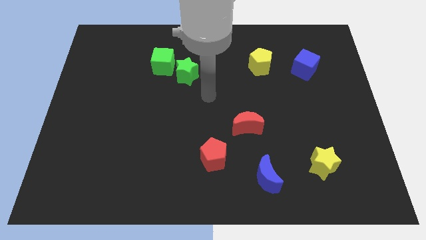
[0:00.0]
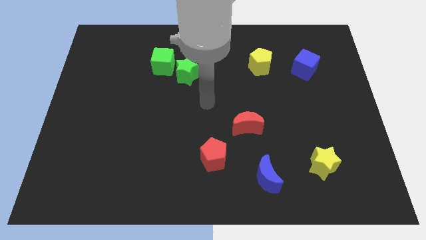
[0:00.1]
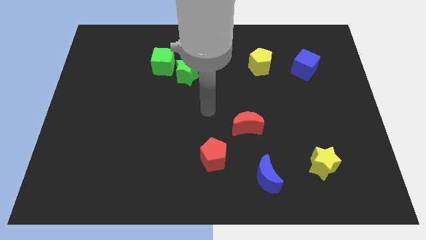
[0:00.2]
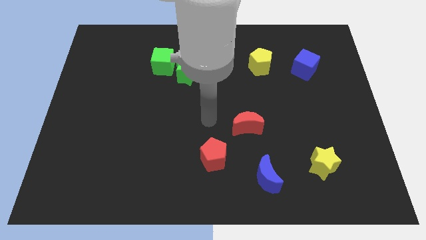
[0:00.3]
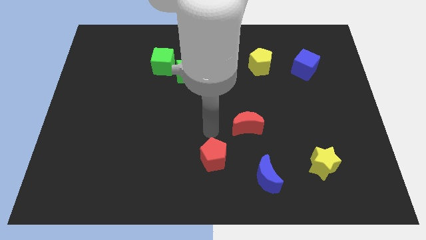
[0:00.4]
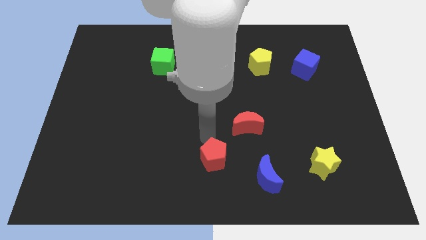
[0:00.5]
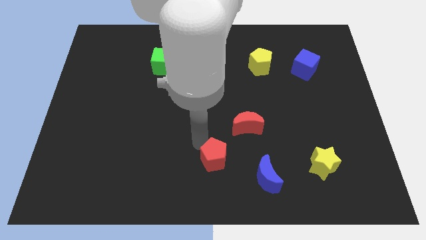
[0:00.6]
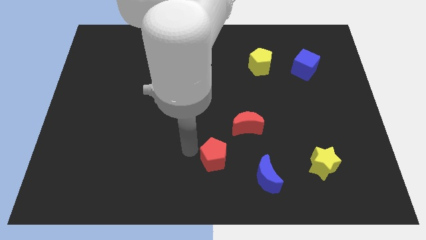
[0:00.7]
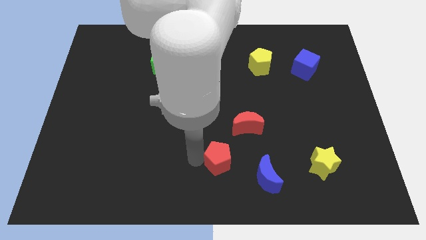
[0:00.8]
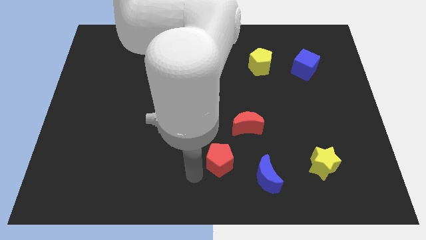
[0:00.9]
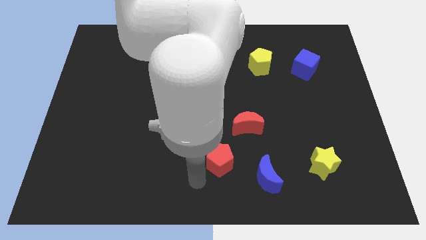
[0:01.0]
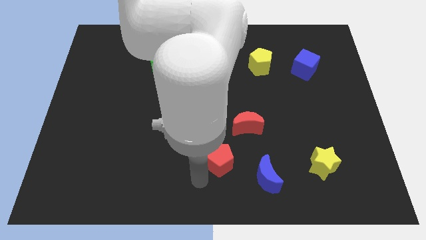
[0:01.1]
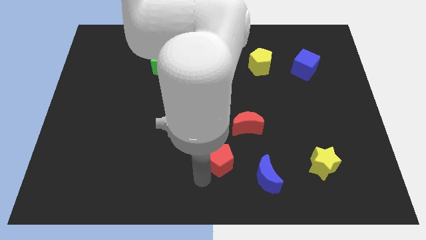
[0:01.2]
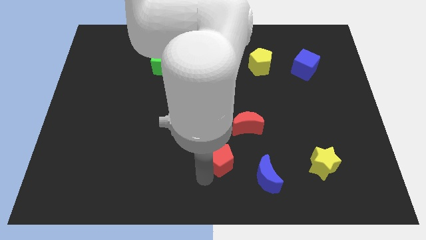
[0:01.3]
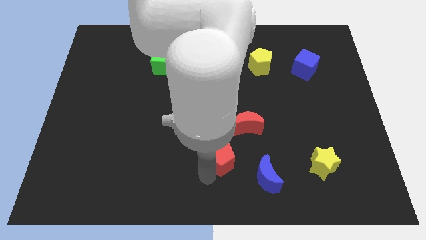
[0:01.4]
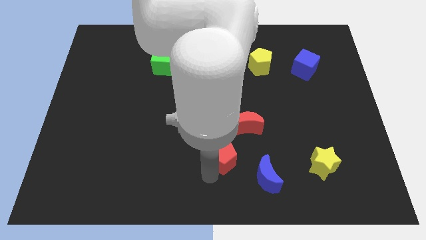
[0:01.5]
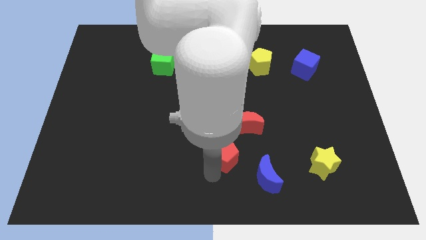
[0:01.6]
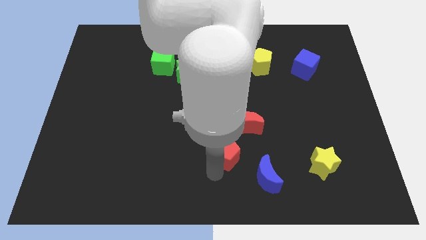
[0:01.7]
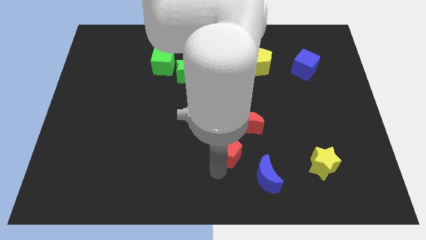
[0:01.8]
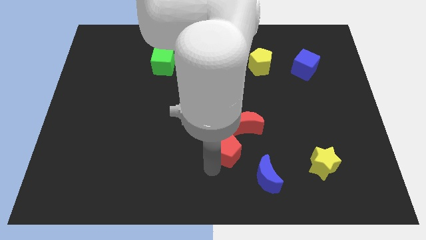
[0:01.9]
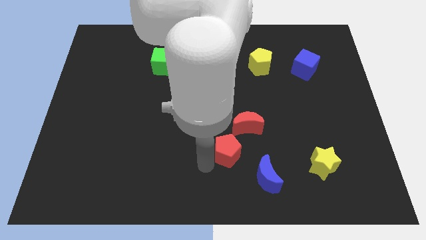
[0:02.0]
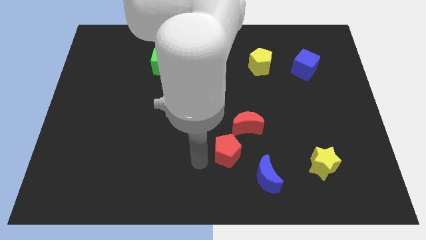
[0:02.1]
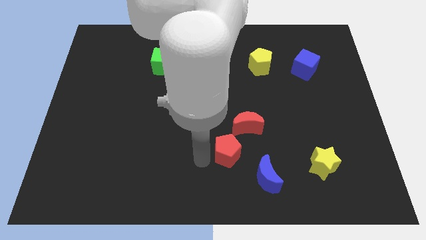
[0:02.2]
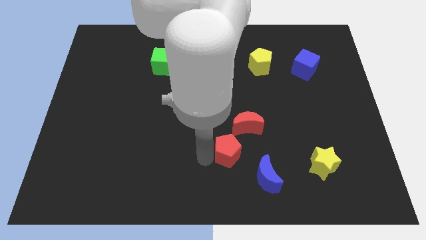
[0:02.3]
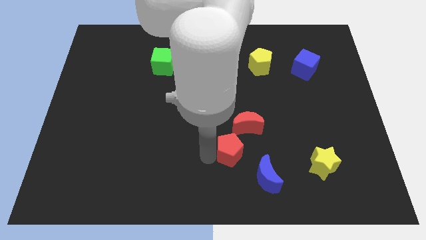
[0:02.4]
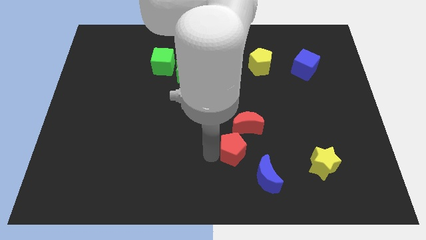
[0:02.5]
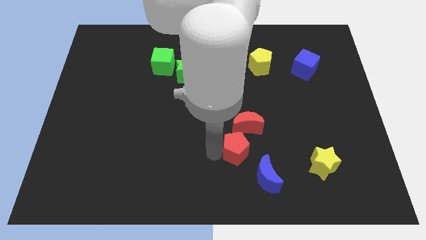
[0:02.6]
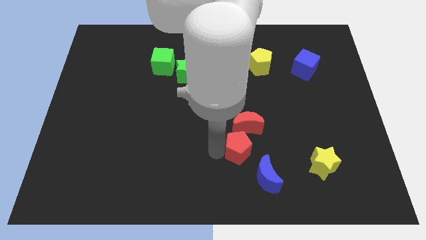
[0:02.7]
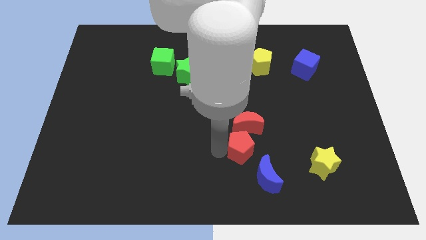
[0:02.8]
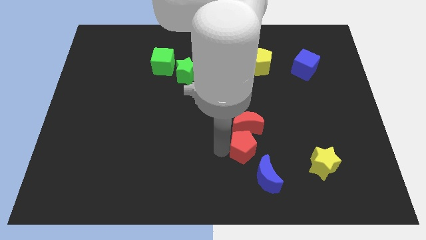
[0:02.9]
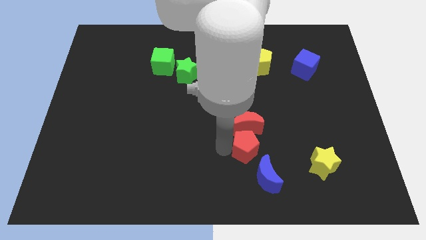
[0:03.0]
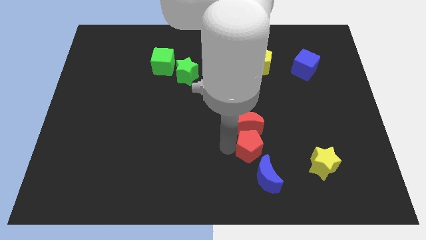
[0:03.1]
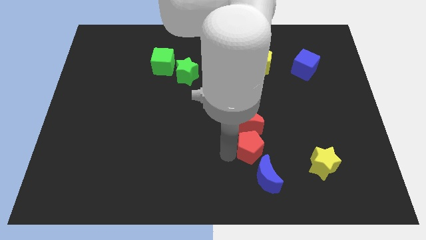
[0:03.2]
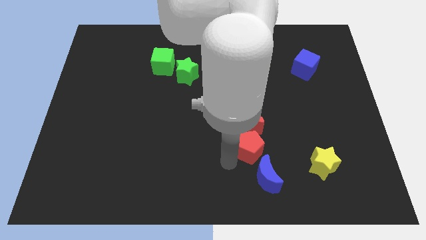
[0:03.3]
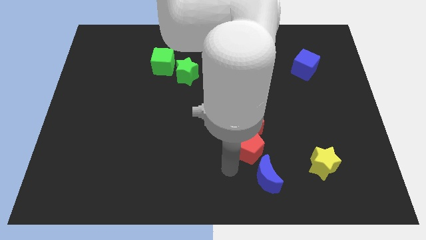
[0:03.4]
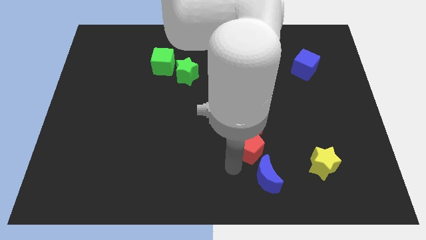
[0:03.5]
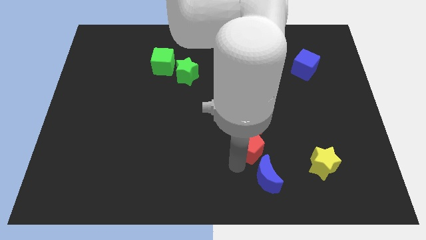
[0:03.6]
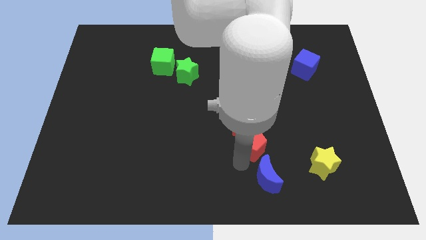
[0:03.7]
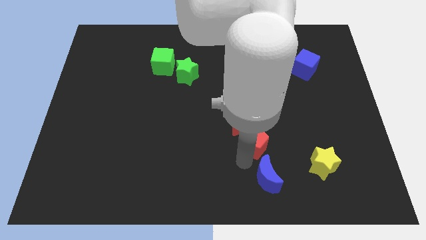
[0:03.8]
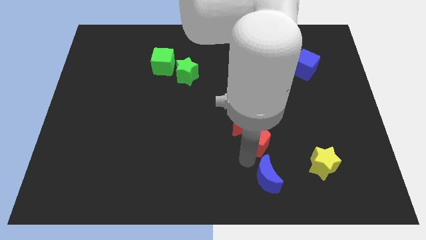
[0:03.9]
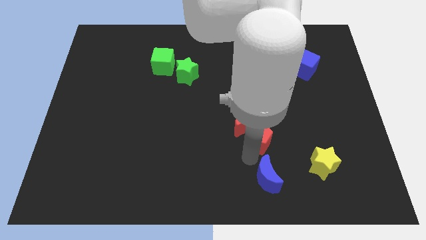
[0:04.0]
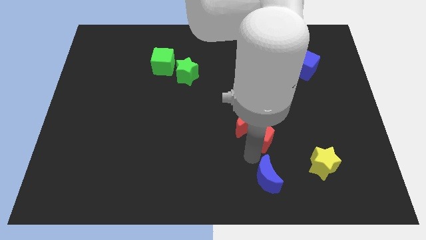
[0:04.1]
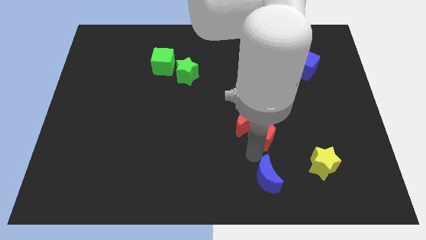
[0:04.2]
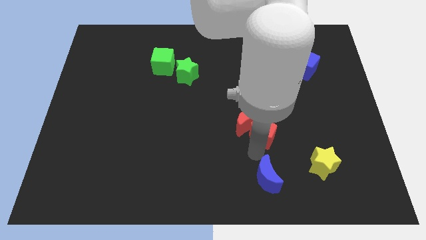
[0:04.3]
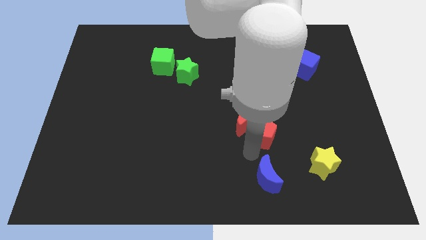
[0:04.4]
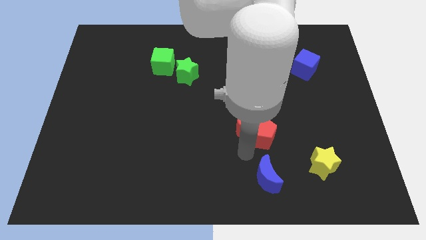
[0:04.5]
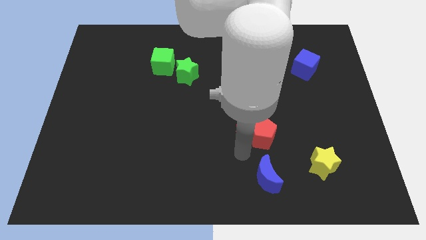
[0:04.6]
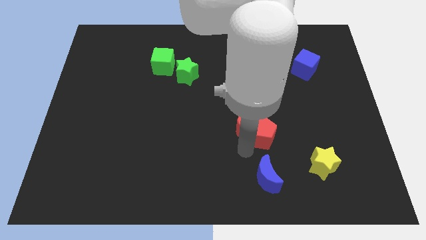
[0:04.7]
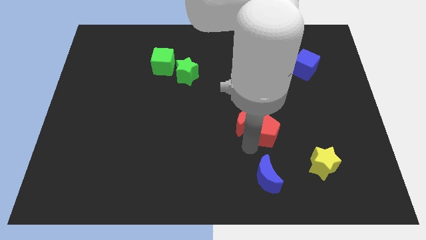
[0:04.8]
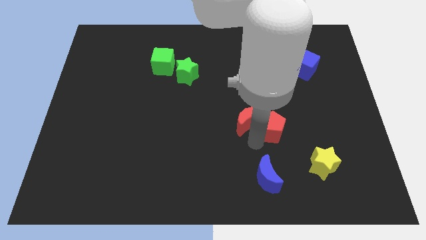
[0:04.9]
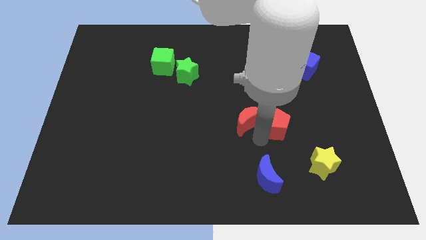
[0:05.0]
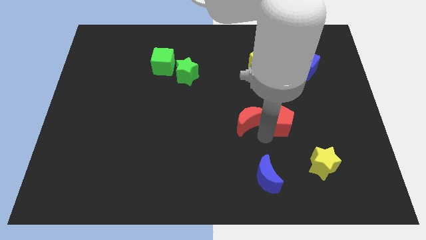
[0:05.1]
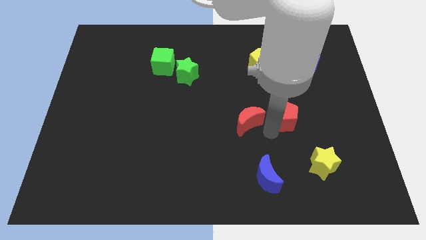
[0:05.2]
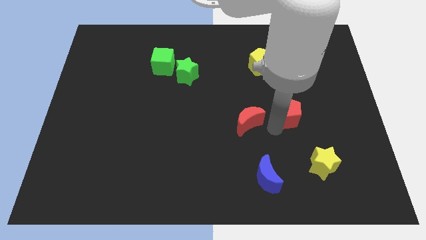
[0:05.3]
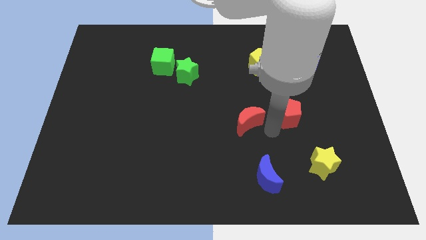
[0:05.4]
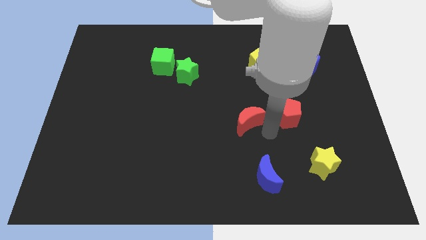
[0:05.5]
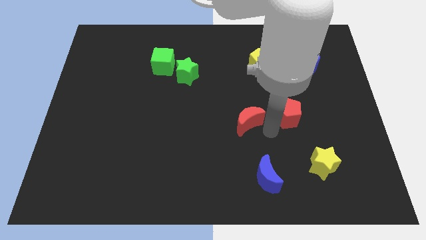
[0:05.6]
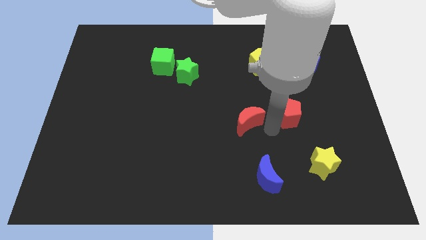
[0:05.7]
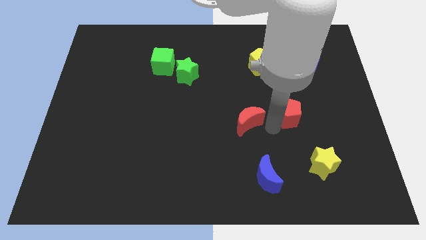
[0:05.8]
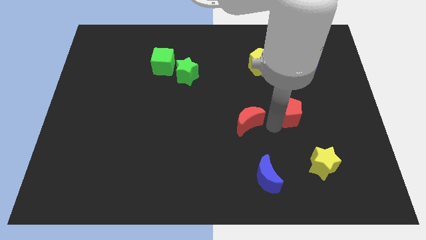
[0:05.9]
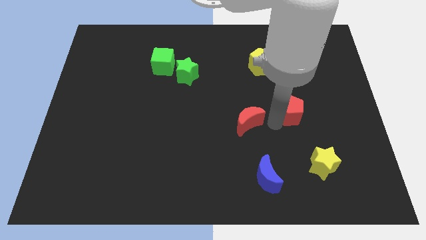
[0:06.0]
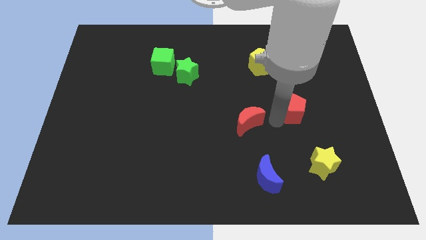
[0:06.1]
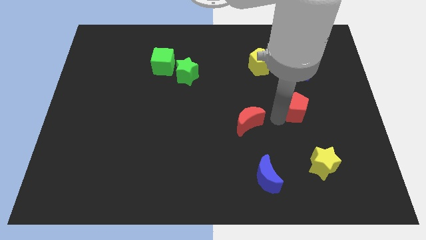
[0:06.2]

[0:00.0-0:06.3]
slide the red pentagon to the bottom of the blue cube

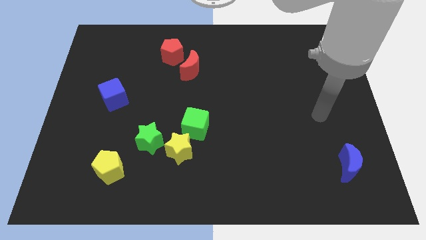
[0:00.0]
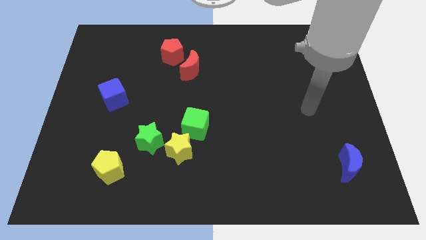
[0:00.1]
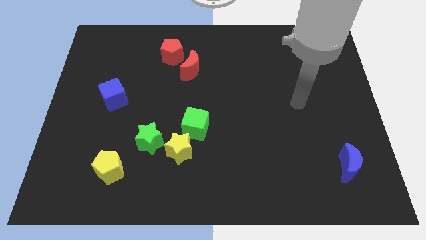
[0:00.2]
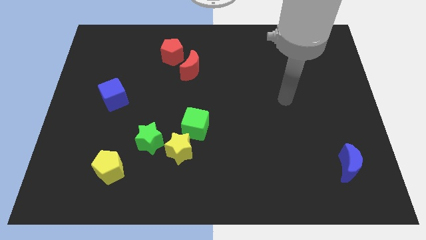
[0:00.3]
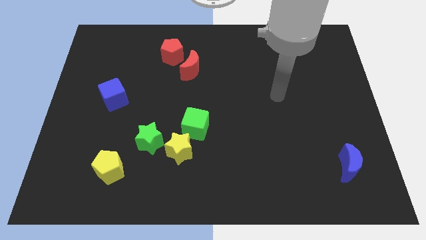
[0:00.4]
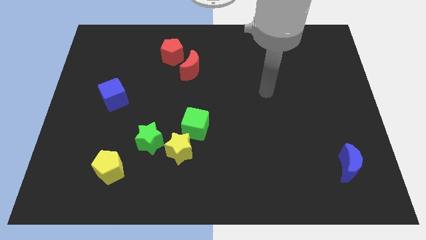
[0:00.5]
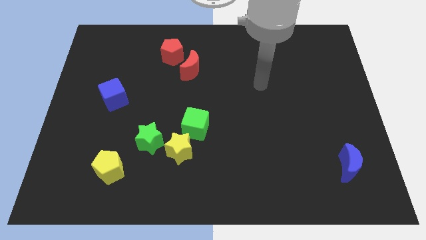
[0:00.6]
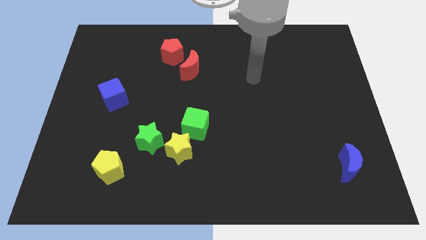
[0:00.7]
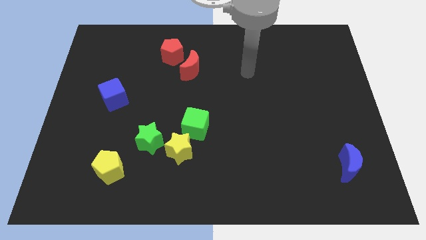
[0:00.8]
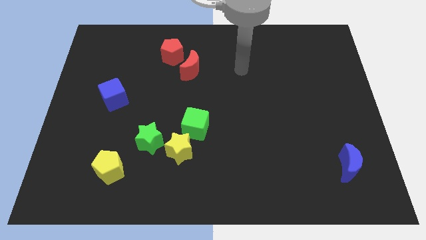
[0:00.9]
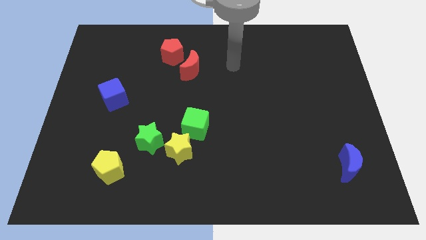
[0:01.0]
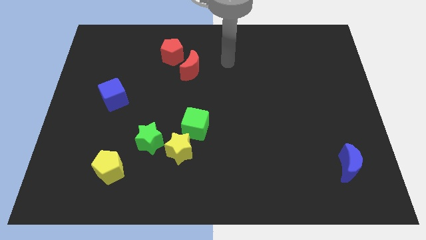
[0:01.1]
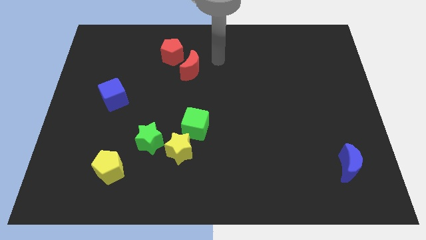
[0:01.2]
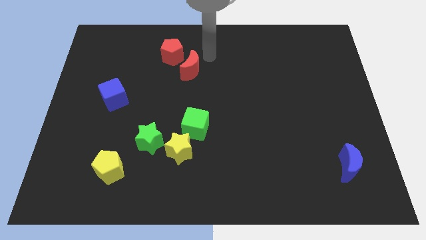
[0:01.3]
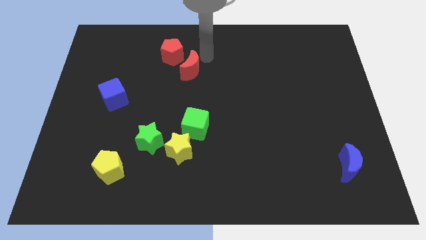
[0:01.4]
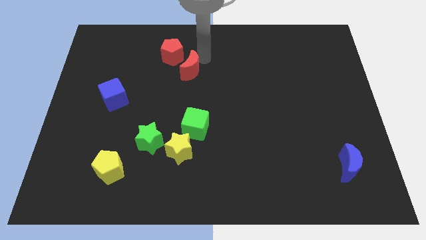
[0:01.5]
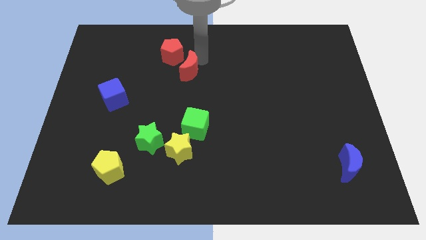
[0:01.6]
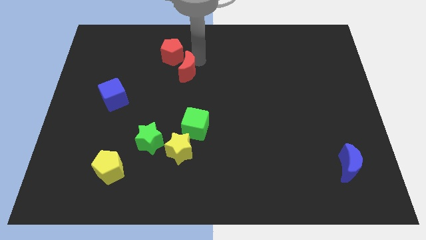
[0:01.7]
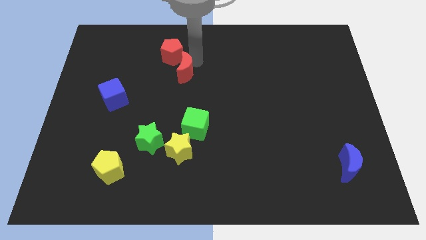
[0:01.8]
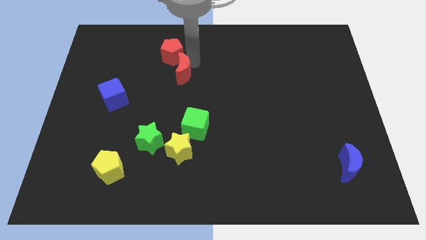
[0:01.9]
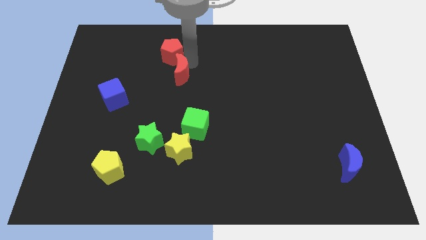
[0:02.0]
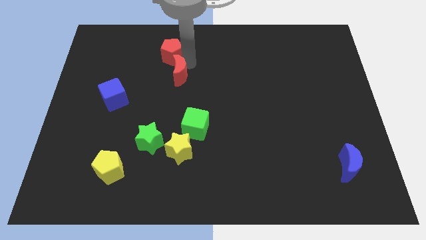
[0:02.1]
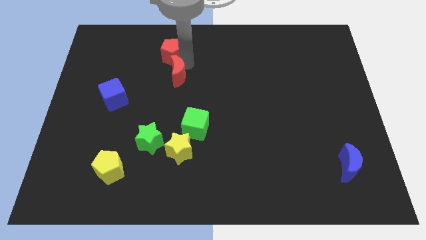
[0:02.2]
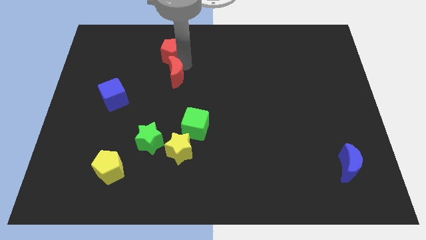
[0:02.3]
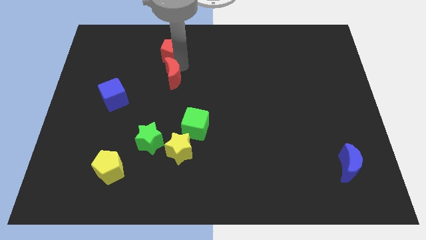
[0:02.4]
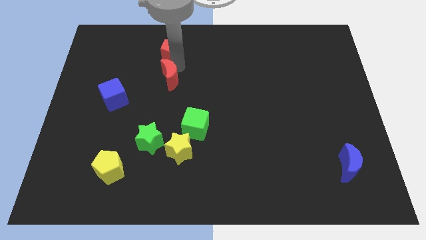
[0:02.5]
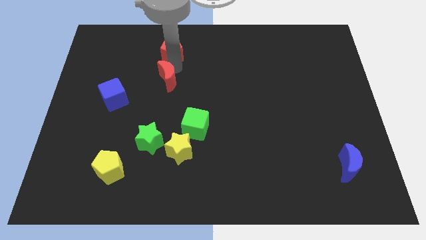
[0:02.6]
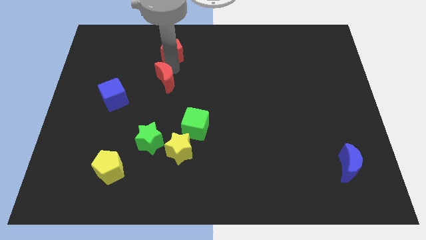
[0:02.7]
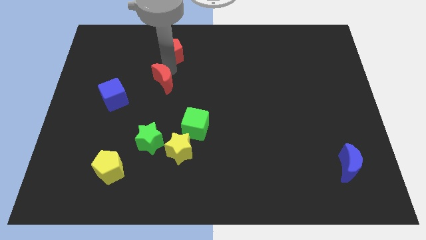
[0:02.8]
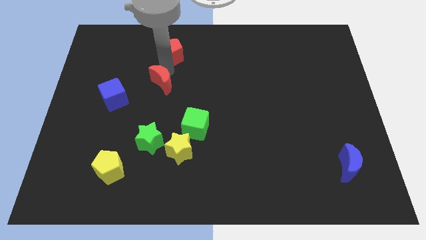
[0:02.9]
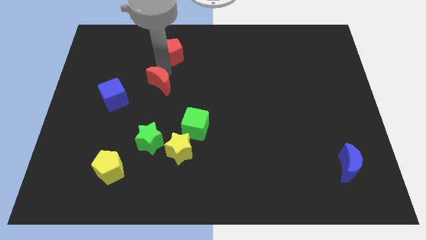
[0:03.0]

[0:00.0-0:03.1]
push the red moon to the right of the blue cube
